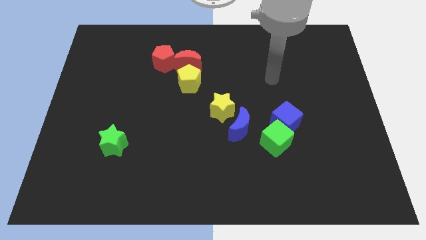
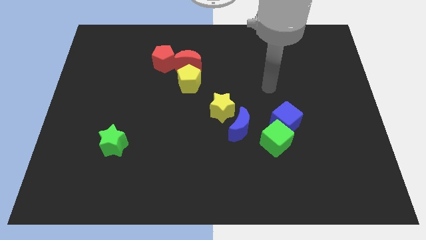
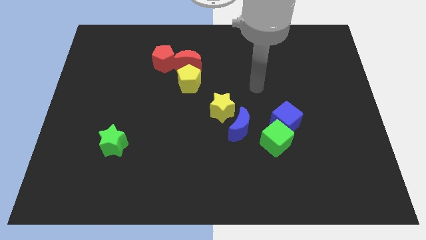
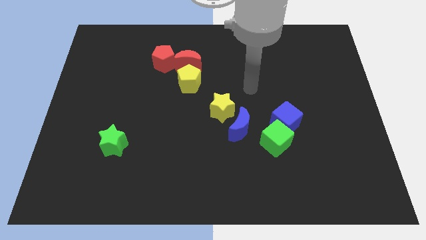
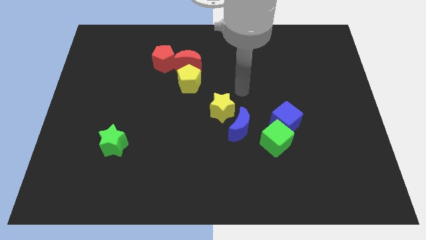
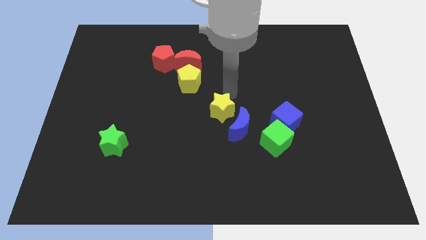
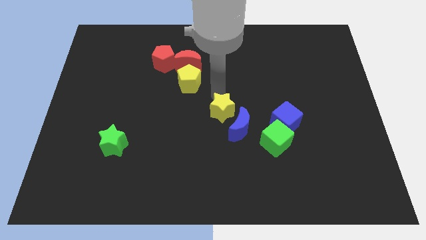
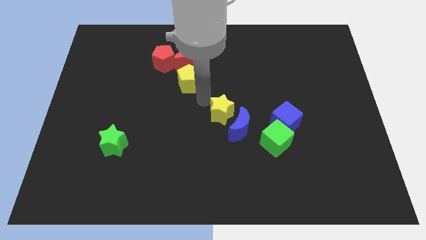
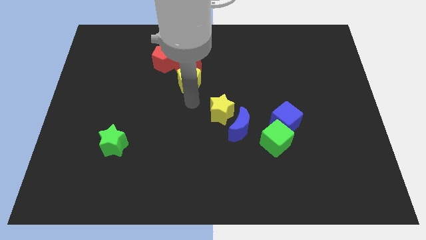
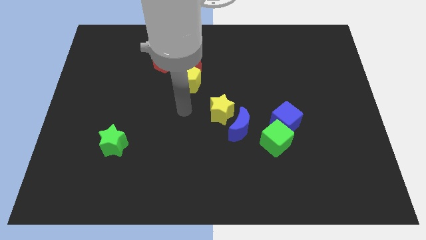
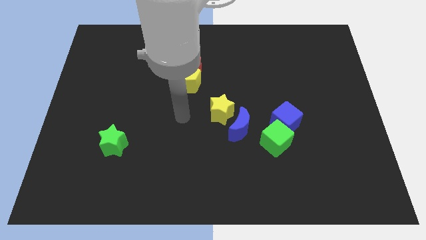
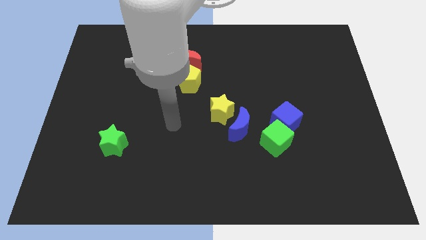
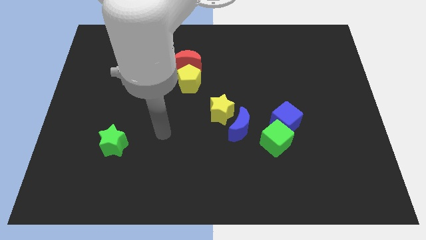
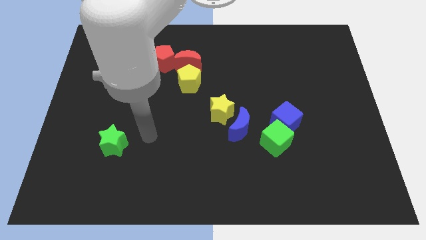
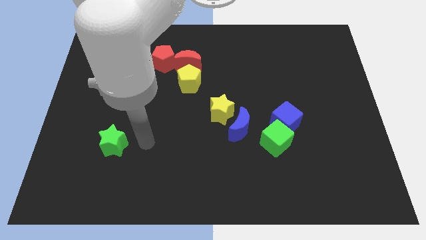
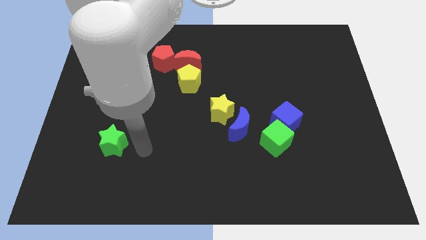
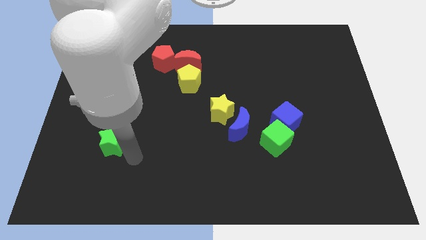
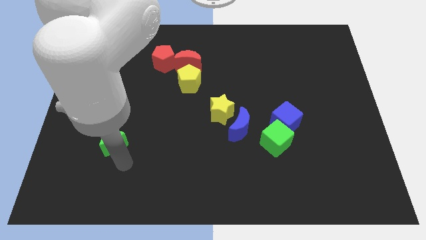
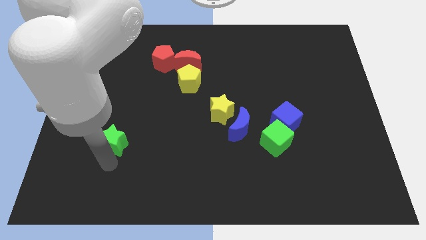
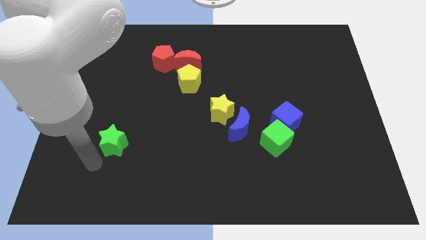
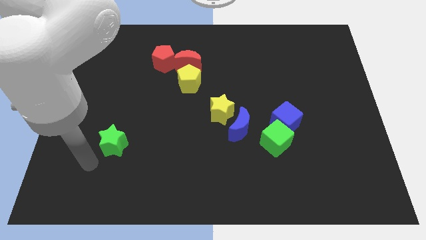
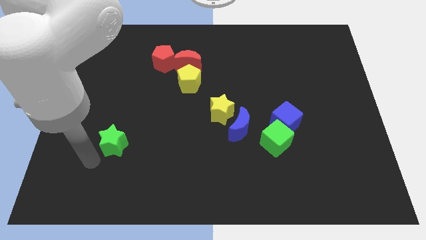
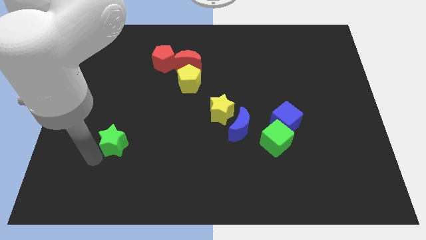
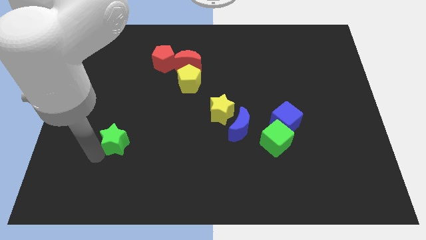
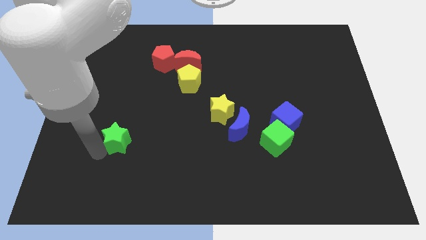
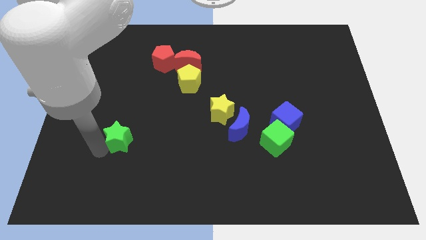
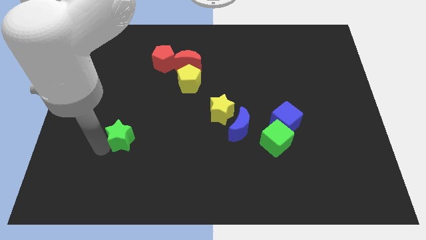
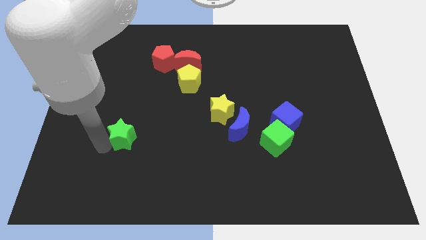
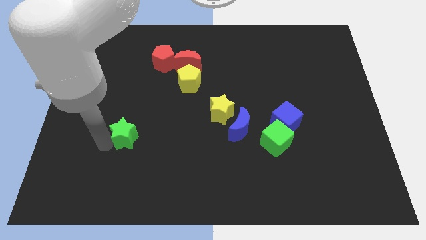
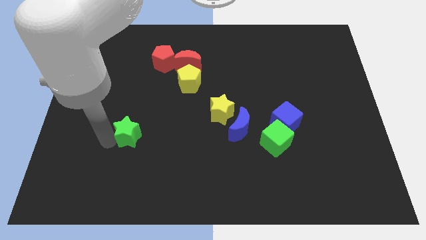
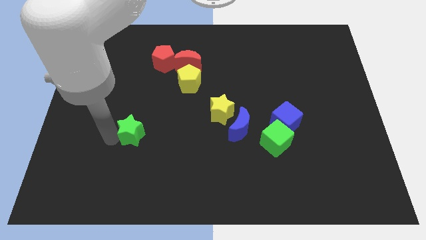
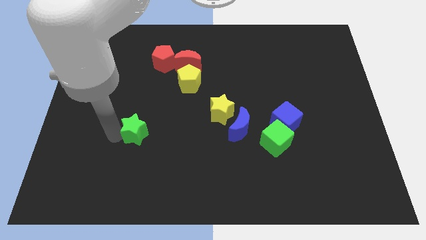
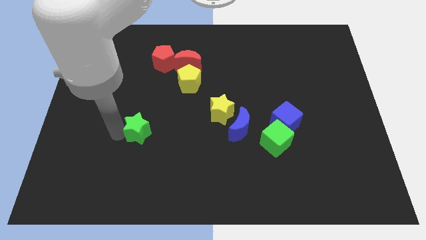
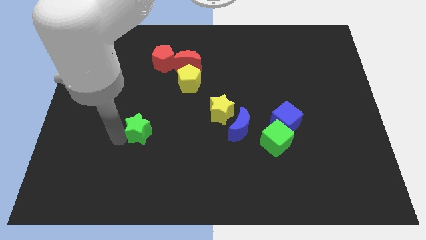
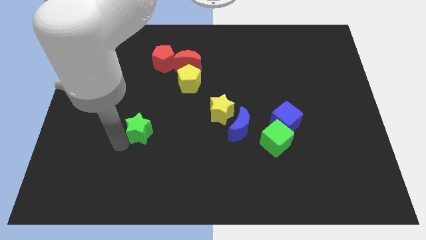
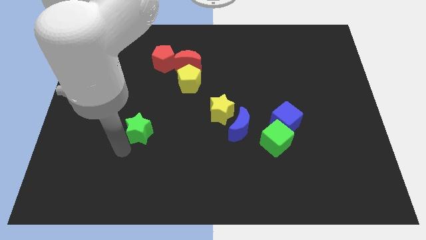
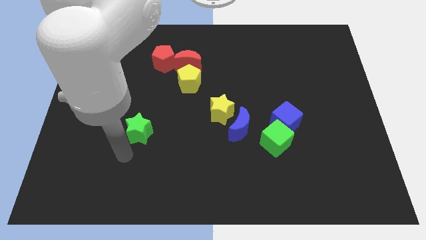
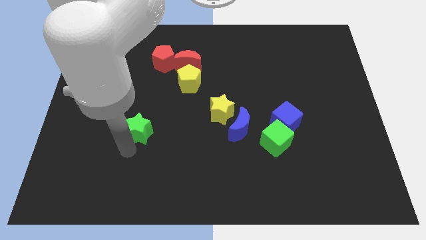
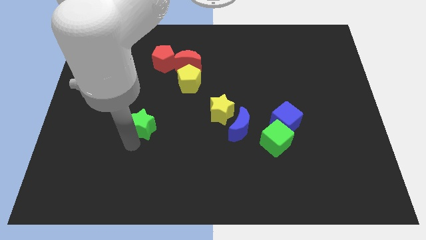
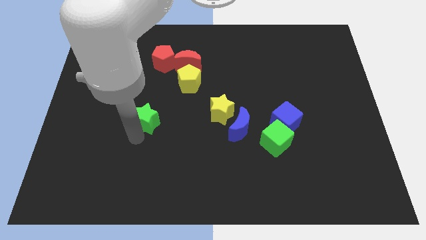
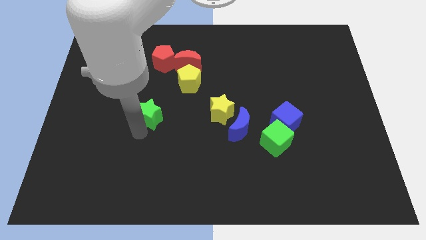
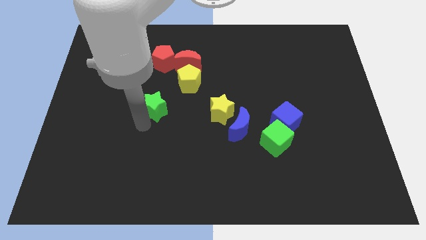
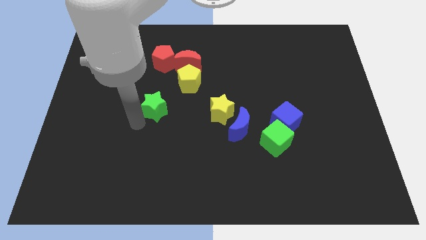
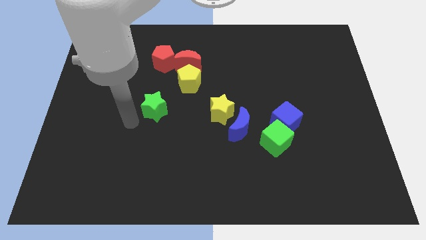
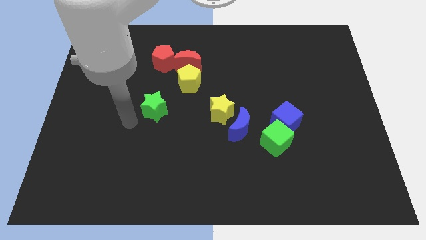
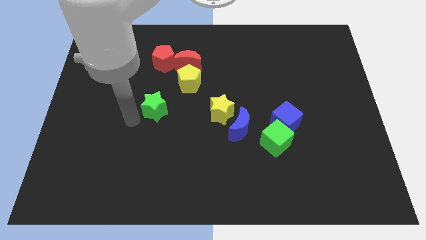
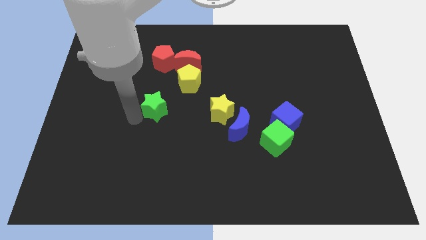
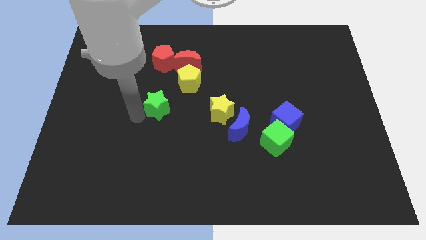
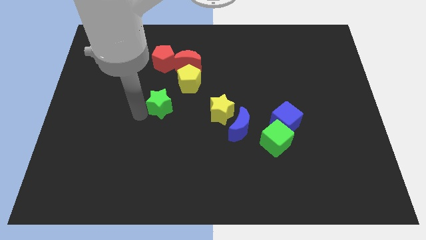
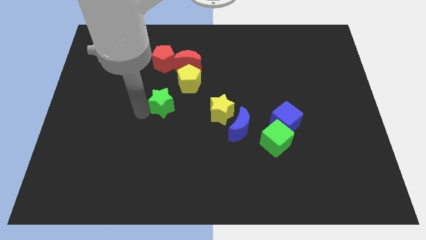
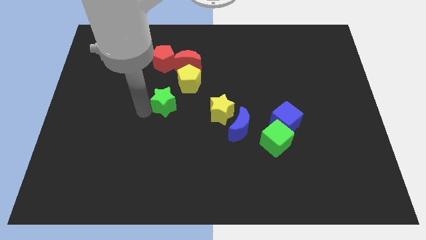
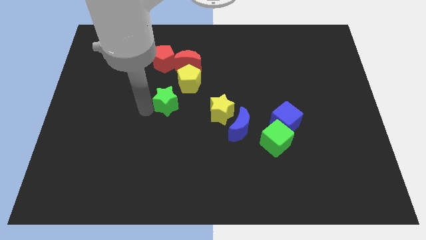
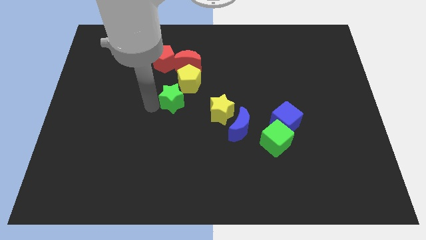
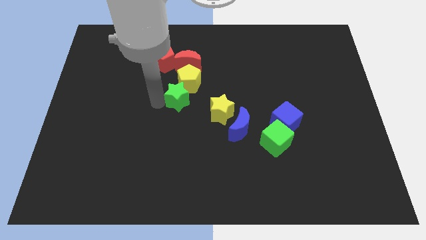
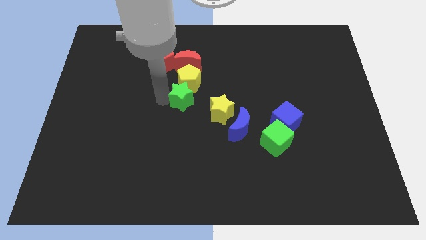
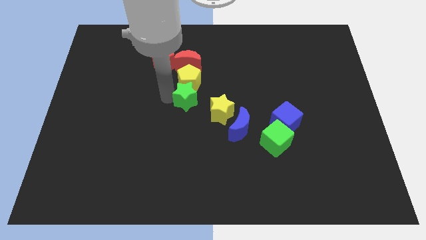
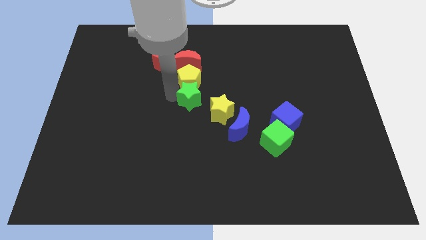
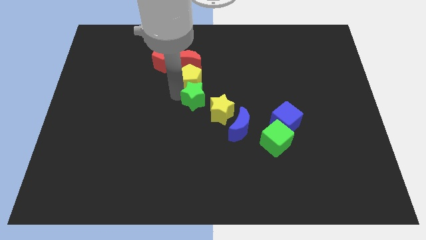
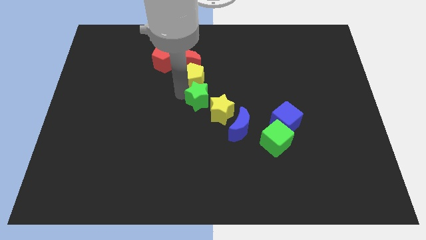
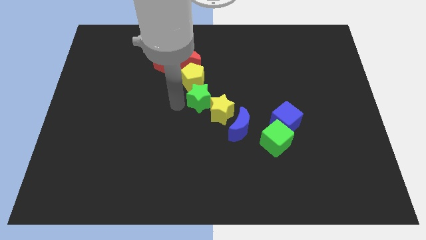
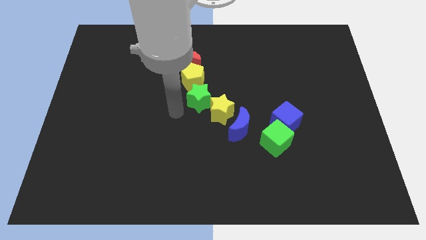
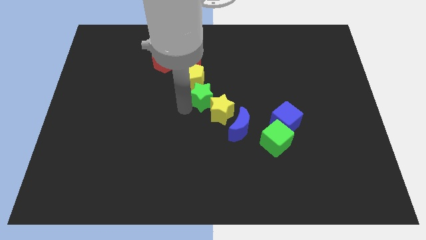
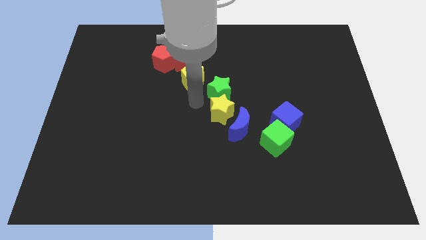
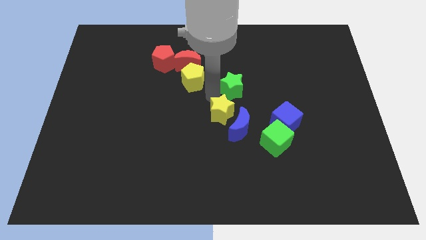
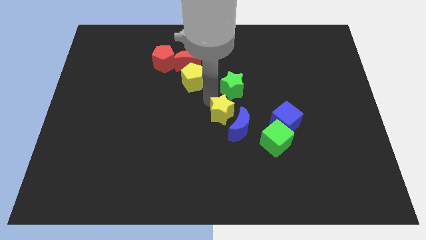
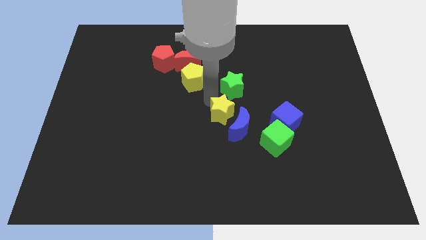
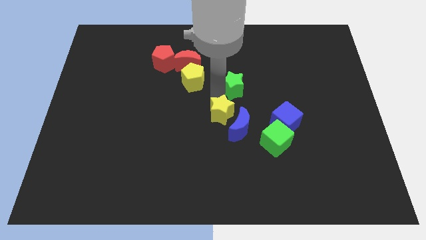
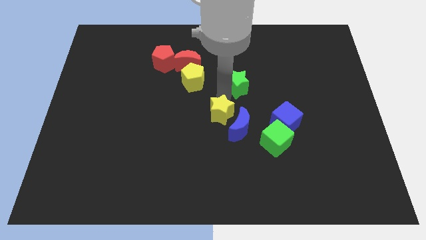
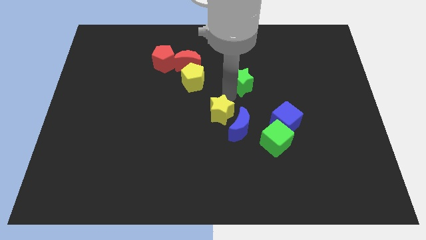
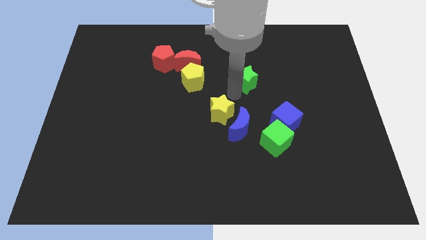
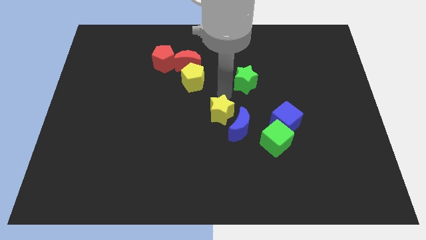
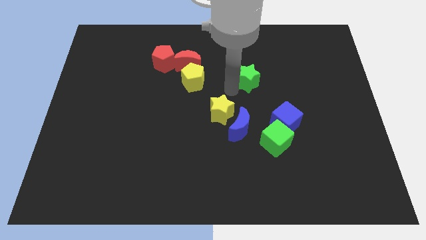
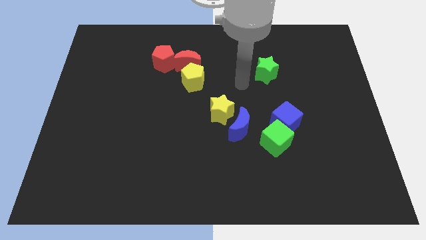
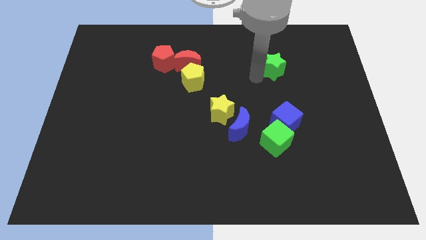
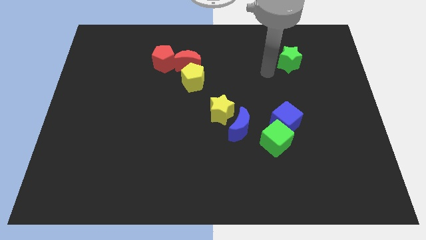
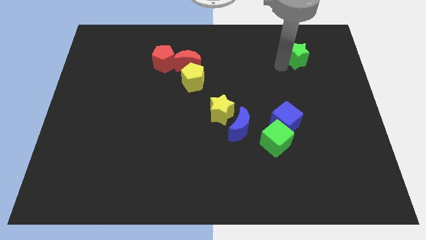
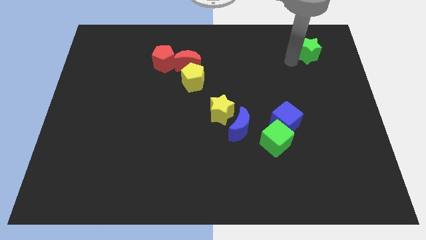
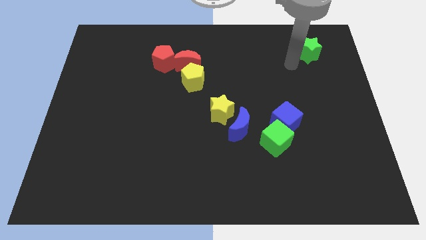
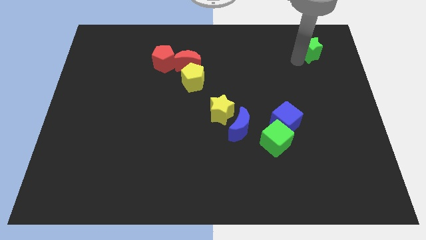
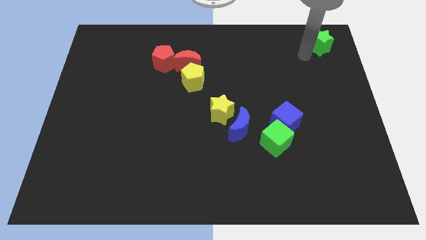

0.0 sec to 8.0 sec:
put the green star to the top right of the board
